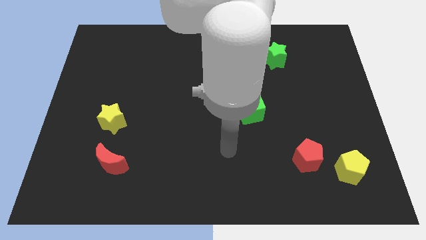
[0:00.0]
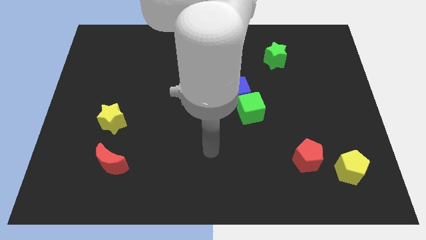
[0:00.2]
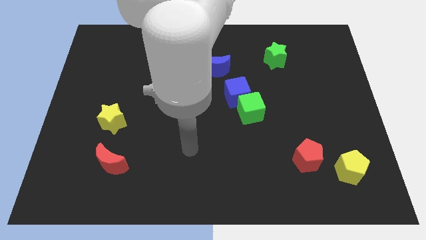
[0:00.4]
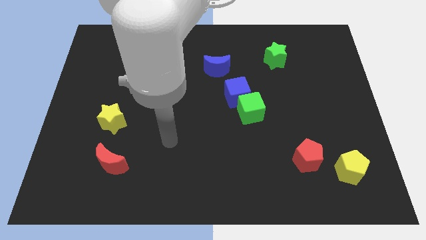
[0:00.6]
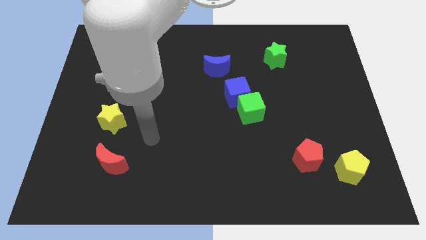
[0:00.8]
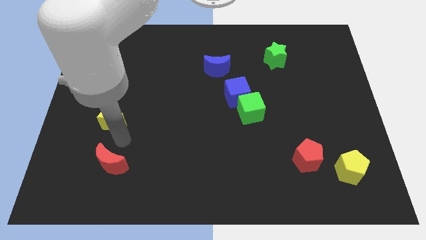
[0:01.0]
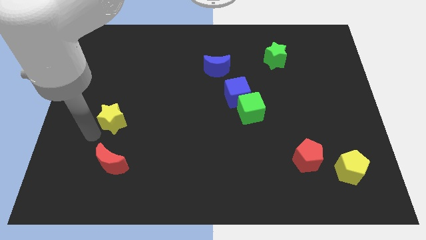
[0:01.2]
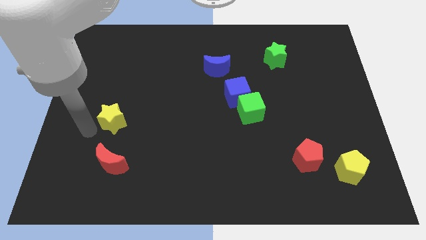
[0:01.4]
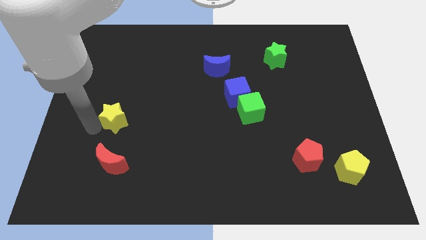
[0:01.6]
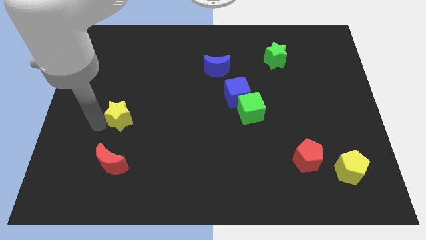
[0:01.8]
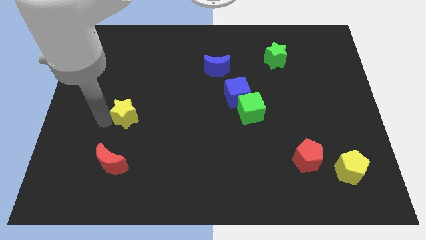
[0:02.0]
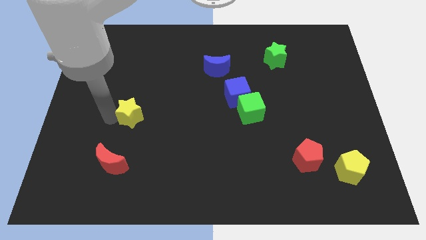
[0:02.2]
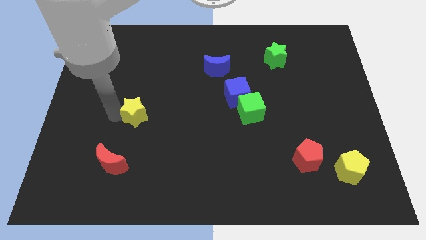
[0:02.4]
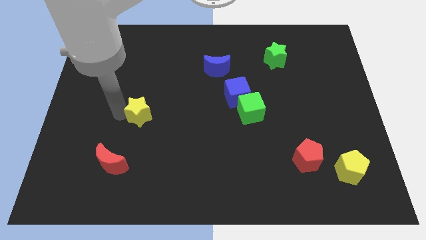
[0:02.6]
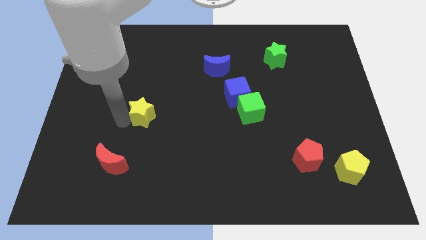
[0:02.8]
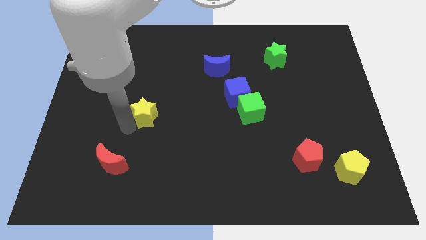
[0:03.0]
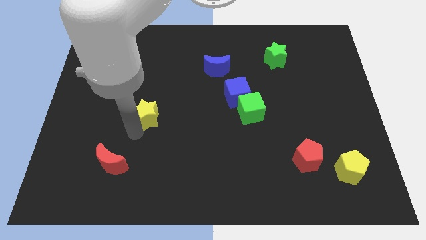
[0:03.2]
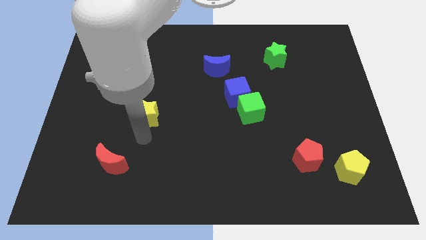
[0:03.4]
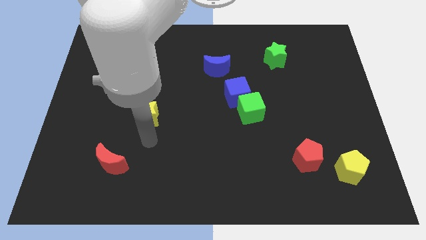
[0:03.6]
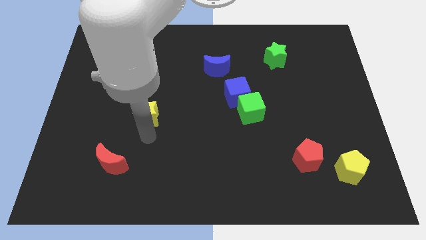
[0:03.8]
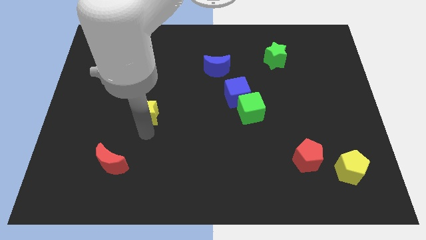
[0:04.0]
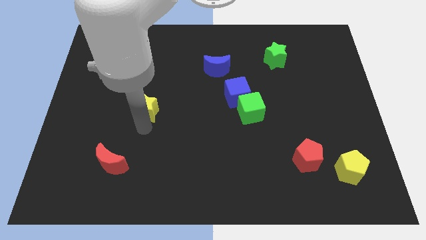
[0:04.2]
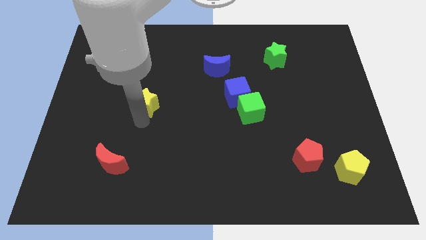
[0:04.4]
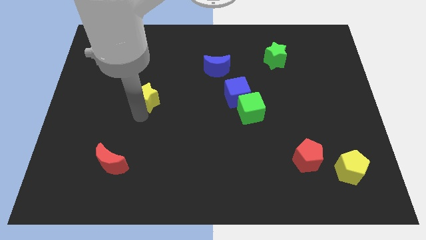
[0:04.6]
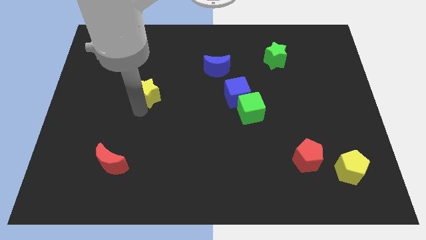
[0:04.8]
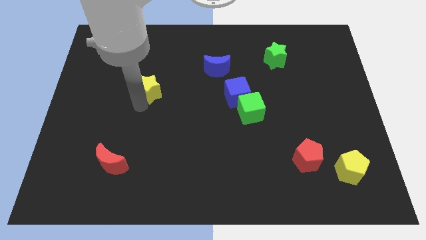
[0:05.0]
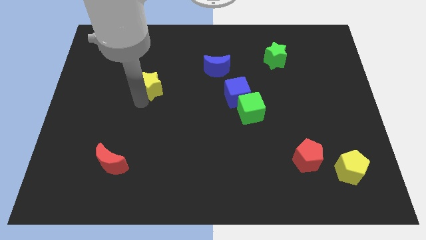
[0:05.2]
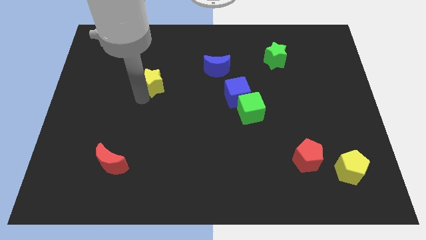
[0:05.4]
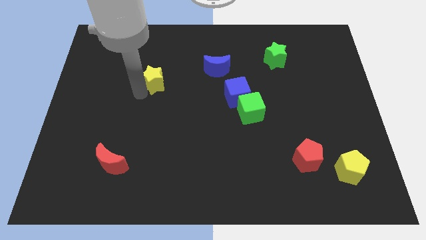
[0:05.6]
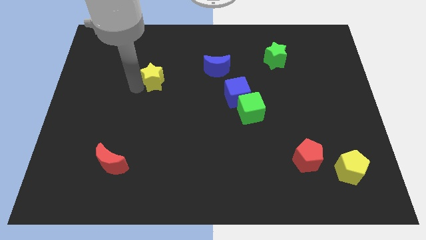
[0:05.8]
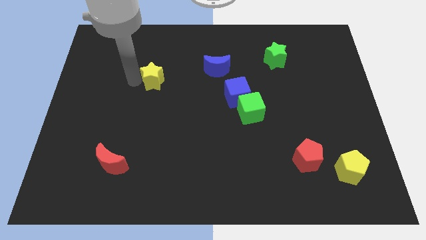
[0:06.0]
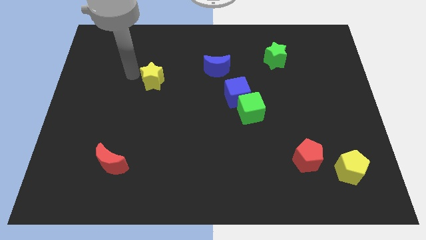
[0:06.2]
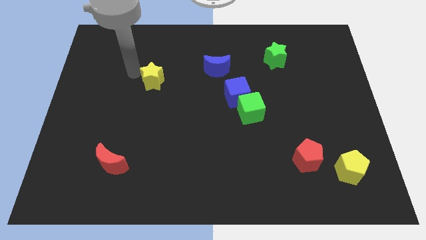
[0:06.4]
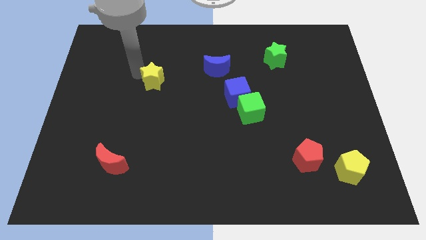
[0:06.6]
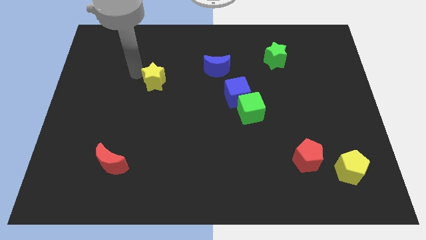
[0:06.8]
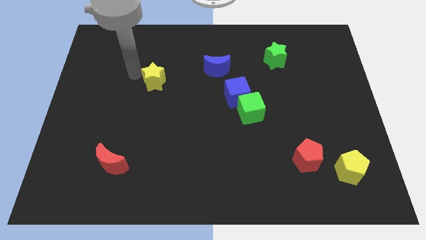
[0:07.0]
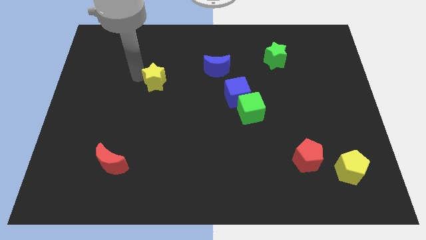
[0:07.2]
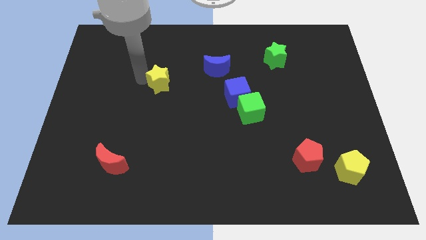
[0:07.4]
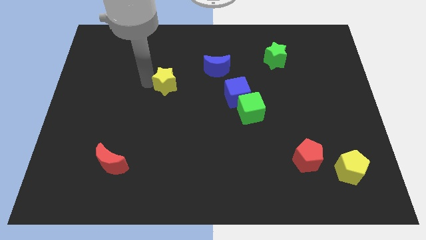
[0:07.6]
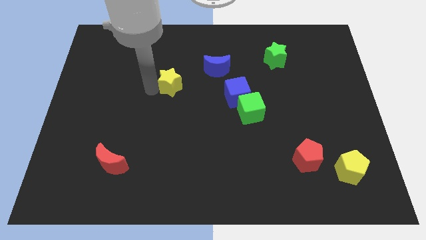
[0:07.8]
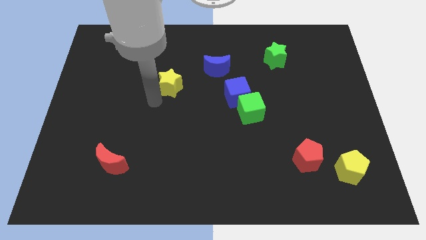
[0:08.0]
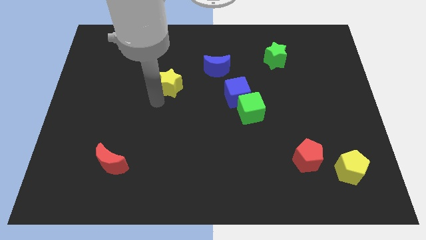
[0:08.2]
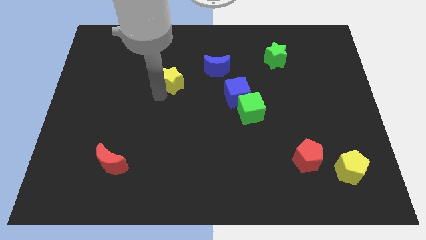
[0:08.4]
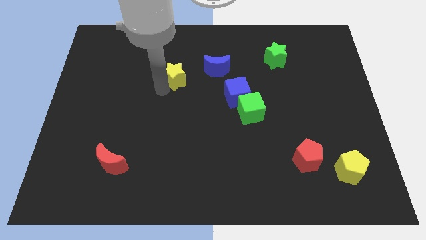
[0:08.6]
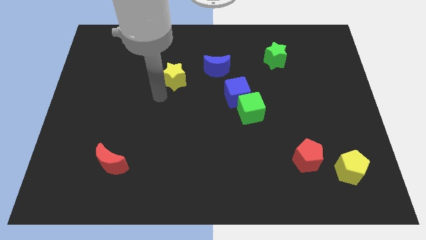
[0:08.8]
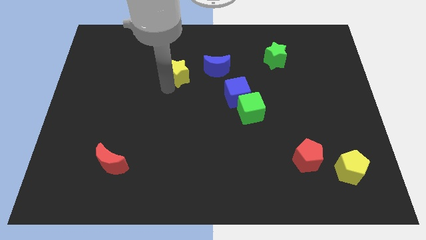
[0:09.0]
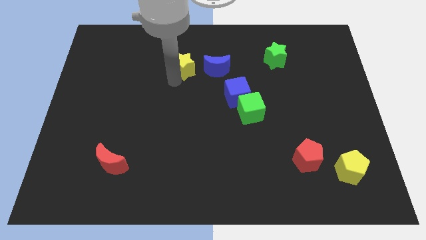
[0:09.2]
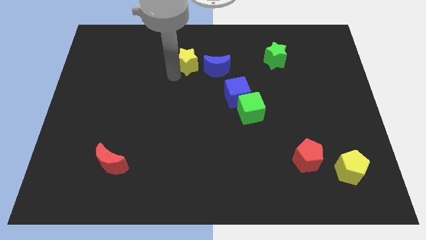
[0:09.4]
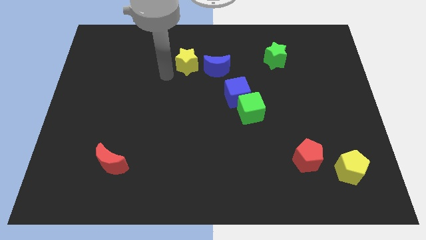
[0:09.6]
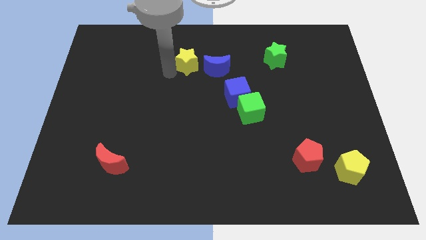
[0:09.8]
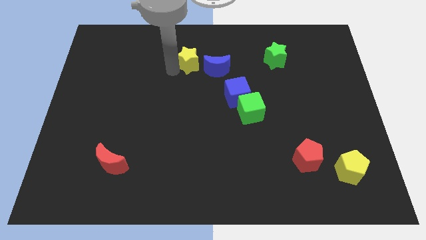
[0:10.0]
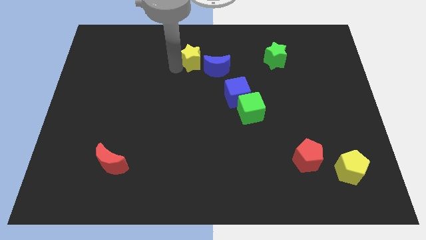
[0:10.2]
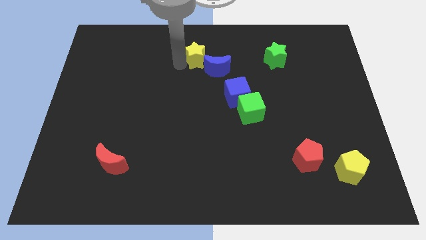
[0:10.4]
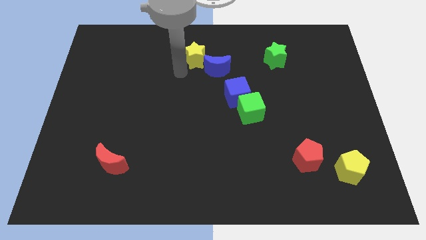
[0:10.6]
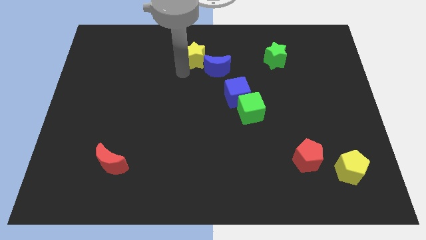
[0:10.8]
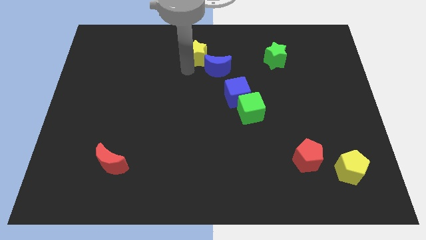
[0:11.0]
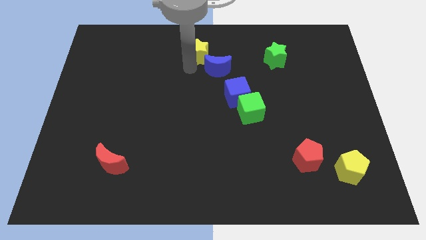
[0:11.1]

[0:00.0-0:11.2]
put the yellow star to the top

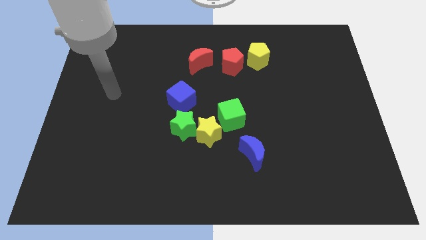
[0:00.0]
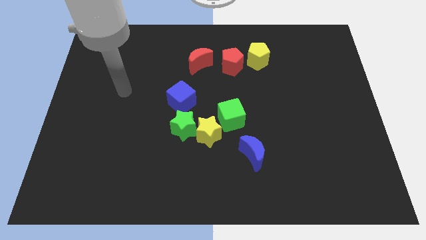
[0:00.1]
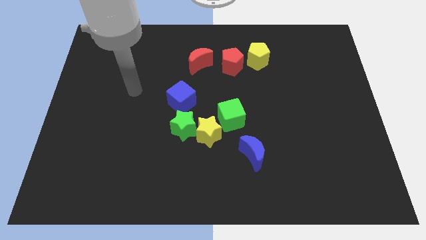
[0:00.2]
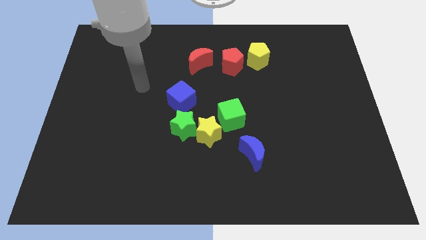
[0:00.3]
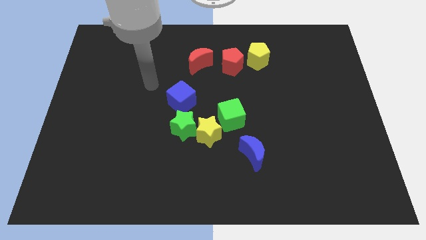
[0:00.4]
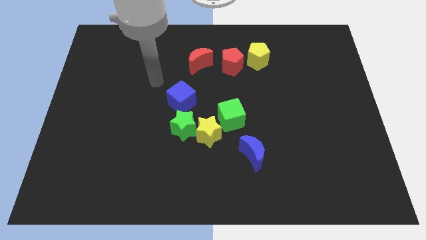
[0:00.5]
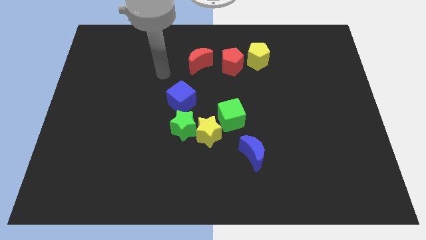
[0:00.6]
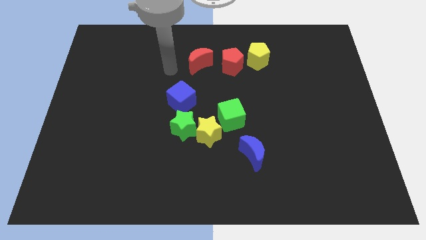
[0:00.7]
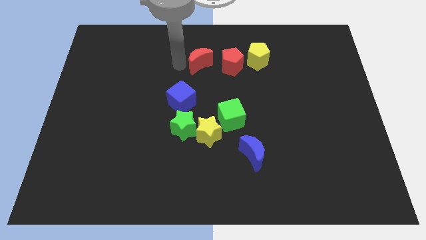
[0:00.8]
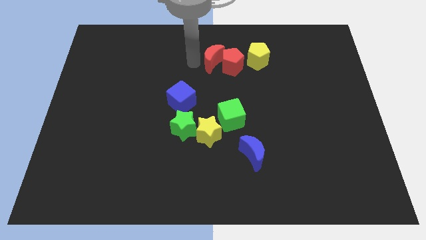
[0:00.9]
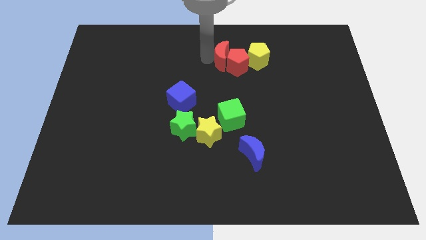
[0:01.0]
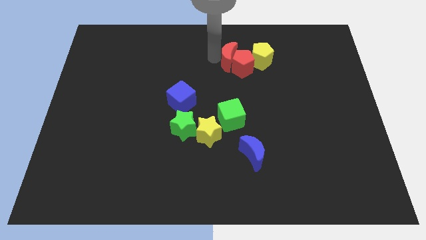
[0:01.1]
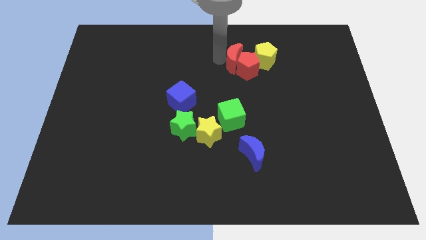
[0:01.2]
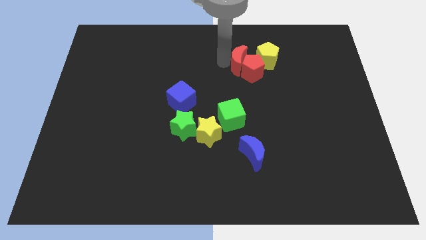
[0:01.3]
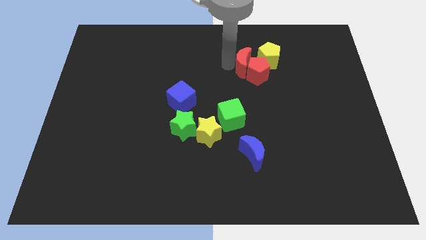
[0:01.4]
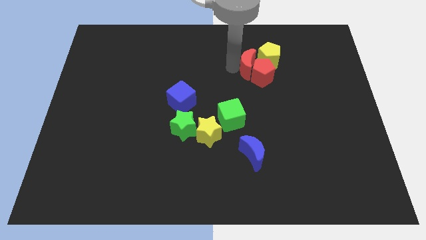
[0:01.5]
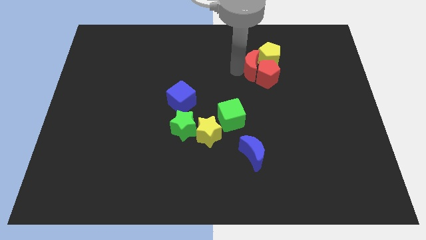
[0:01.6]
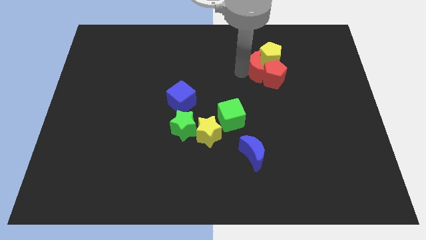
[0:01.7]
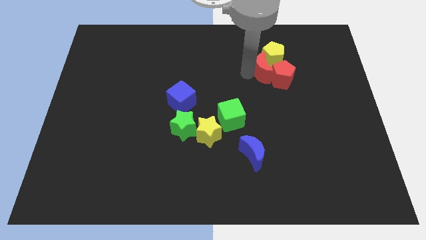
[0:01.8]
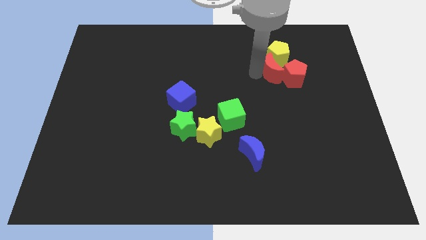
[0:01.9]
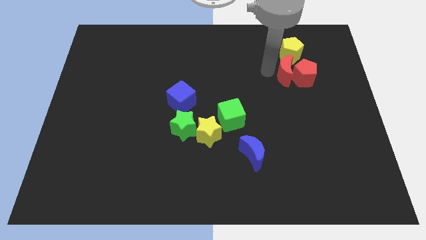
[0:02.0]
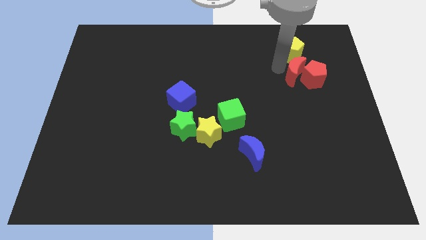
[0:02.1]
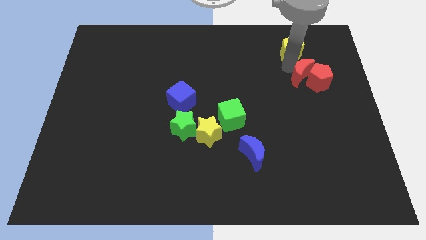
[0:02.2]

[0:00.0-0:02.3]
move the red pentagon to the right side
